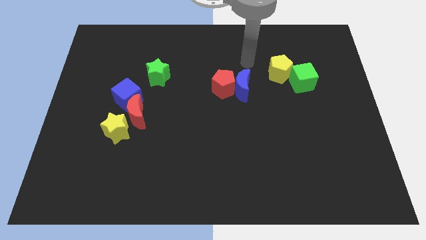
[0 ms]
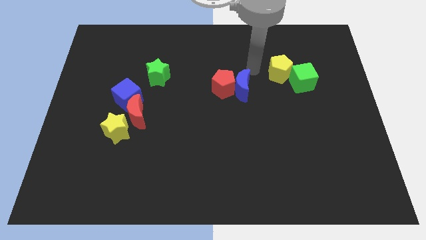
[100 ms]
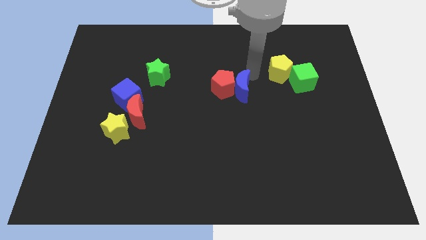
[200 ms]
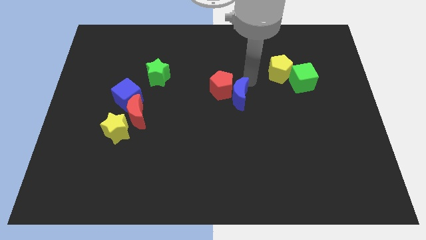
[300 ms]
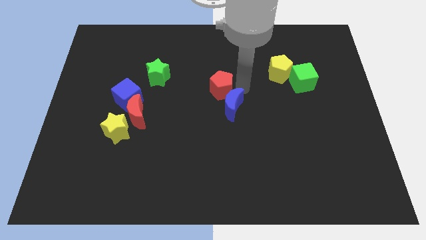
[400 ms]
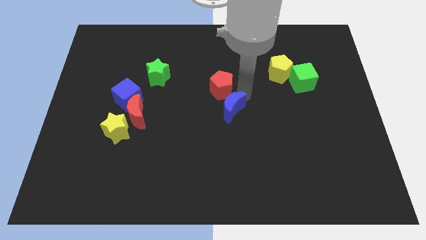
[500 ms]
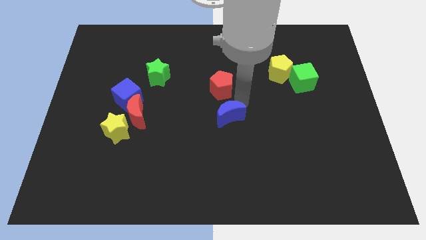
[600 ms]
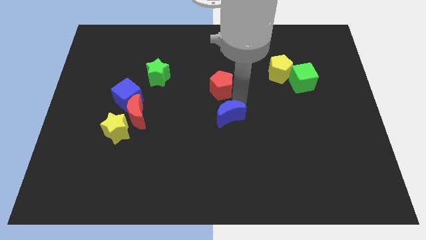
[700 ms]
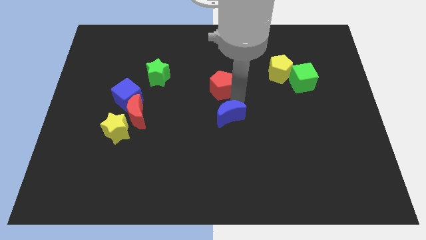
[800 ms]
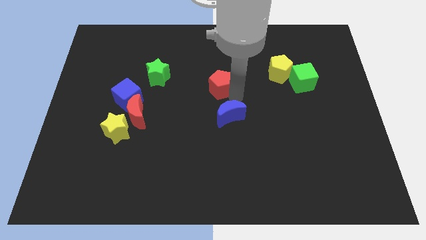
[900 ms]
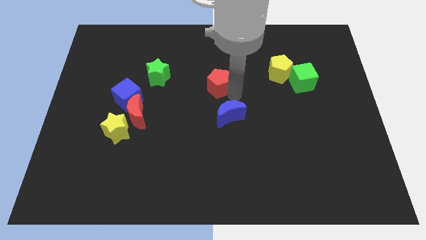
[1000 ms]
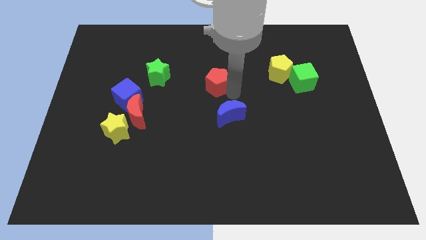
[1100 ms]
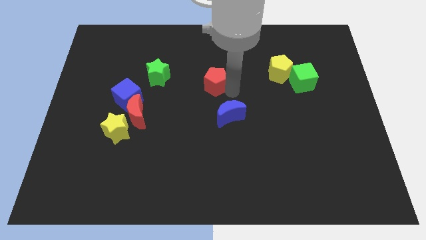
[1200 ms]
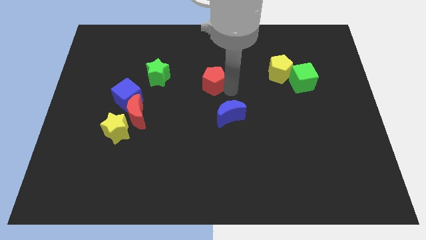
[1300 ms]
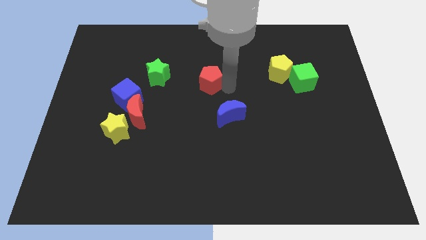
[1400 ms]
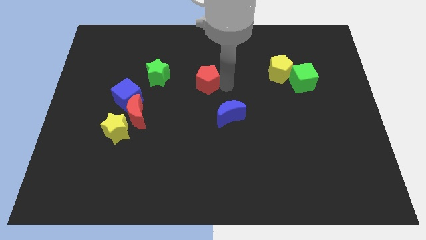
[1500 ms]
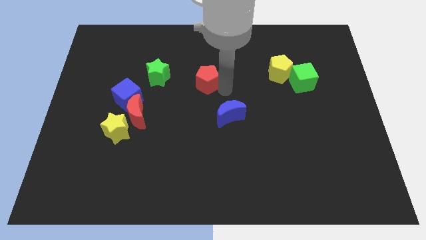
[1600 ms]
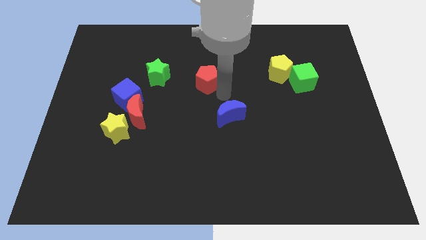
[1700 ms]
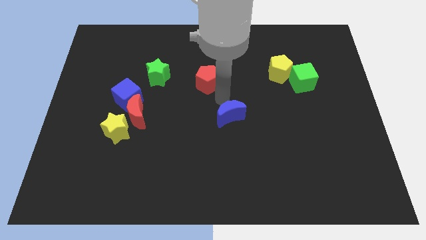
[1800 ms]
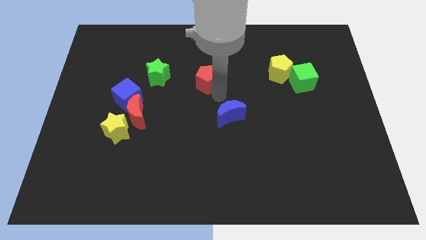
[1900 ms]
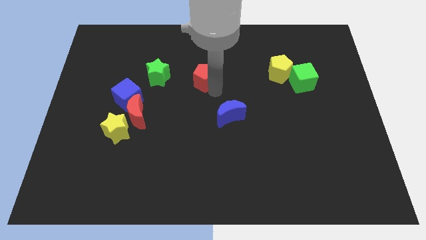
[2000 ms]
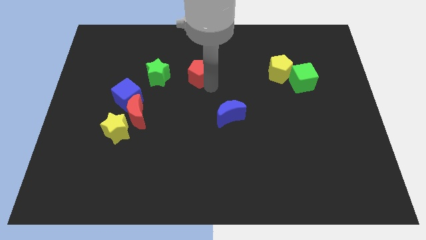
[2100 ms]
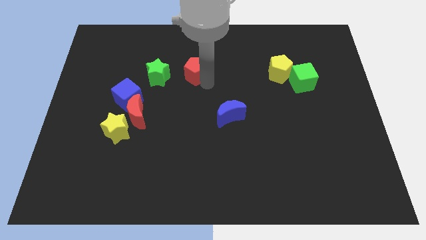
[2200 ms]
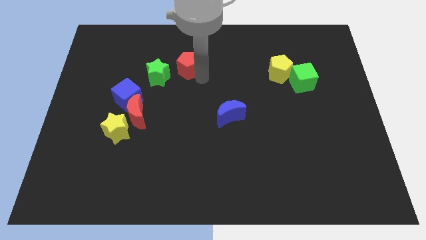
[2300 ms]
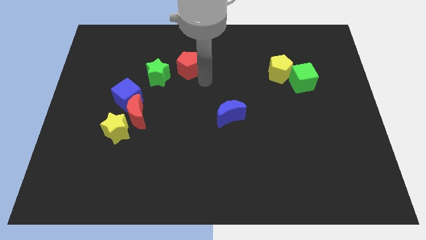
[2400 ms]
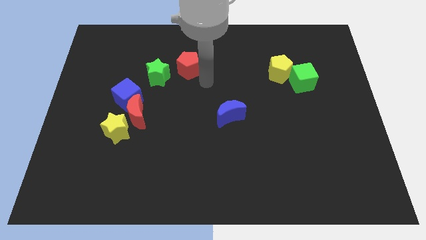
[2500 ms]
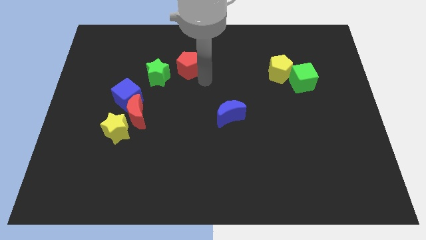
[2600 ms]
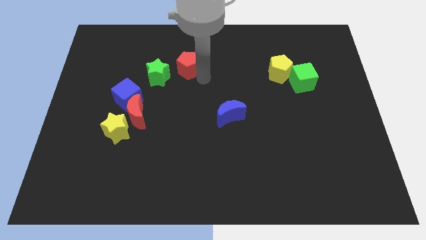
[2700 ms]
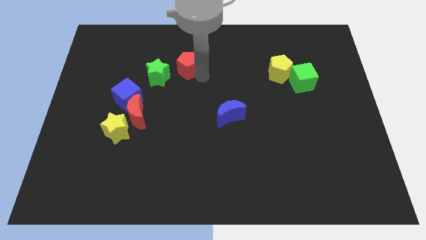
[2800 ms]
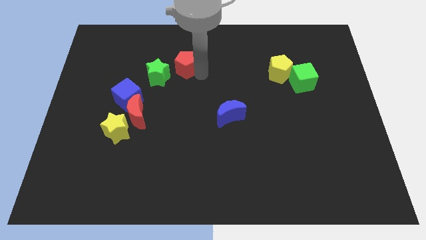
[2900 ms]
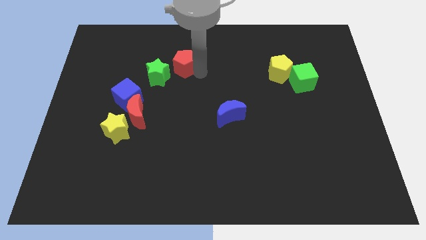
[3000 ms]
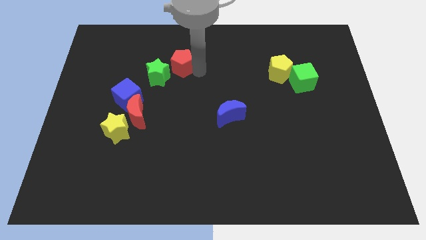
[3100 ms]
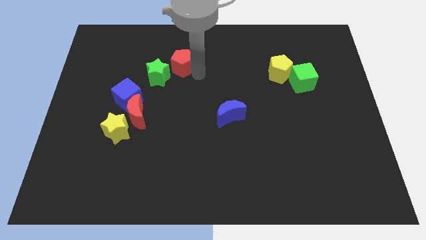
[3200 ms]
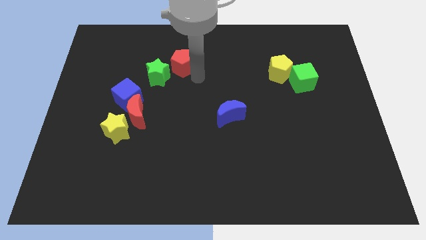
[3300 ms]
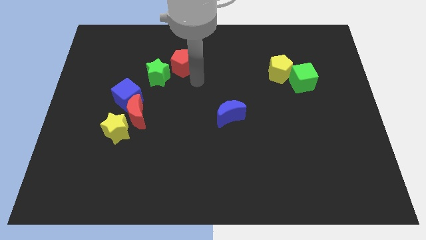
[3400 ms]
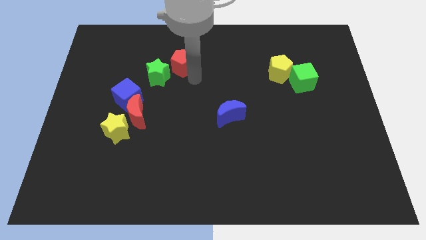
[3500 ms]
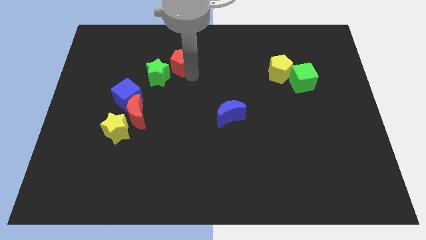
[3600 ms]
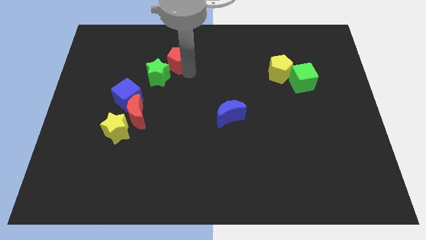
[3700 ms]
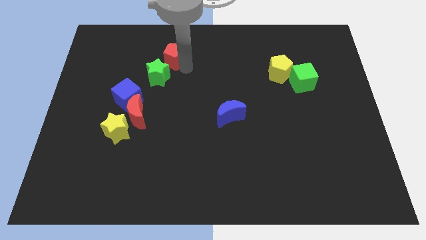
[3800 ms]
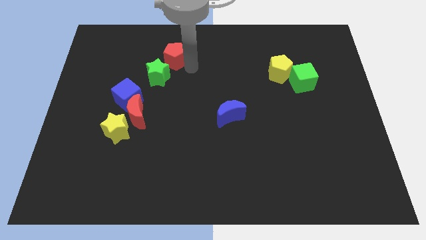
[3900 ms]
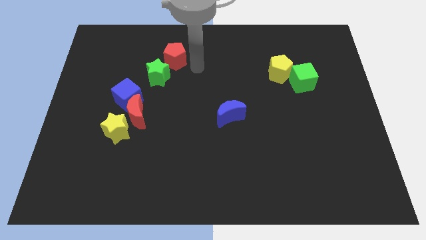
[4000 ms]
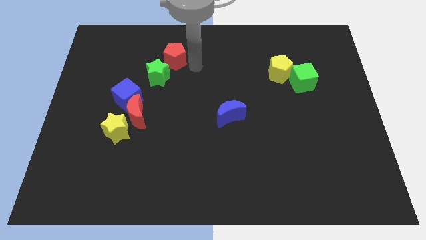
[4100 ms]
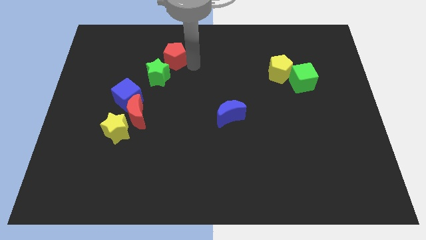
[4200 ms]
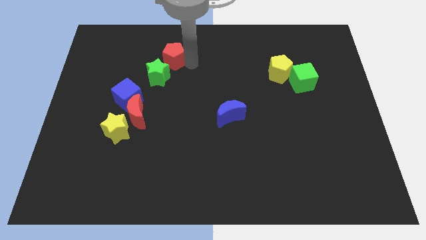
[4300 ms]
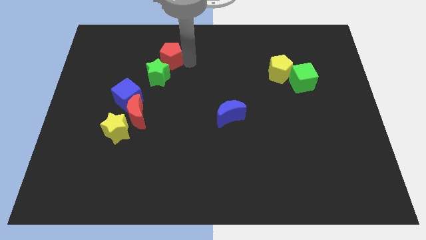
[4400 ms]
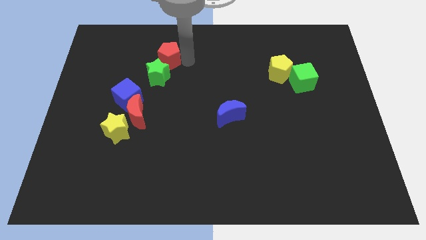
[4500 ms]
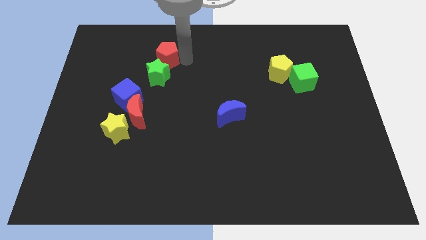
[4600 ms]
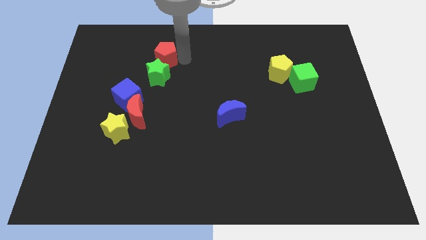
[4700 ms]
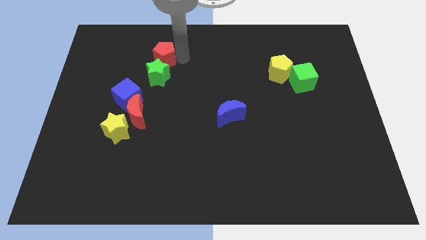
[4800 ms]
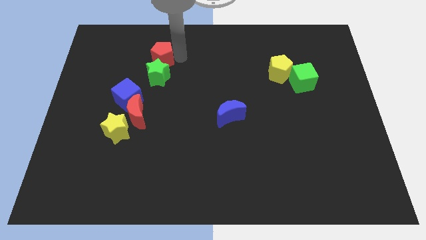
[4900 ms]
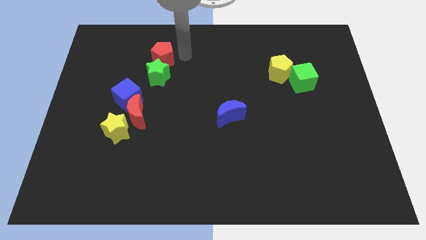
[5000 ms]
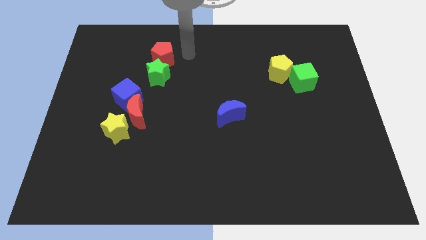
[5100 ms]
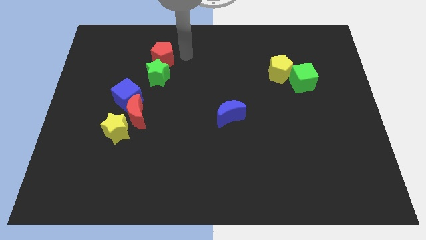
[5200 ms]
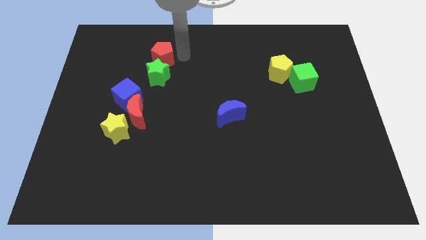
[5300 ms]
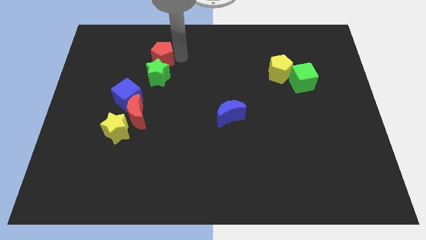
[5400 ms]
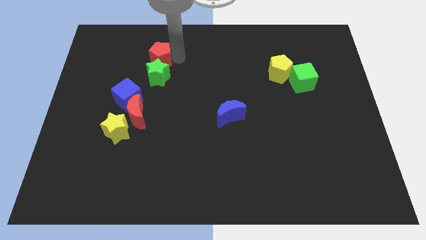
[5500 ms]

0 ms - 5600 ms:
slide the red pentagon to the top left side of the green star

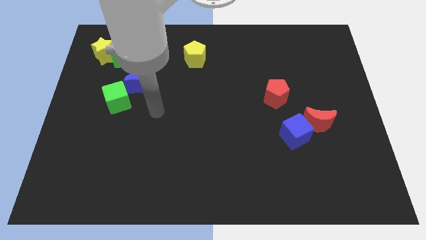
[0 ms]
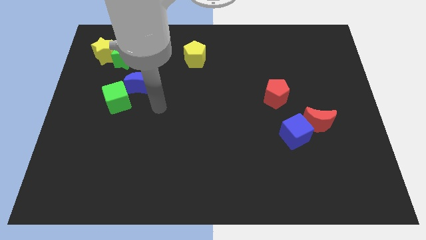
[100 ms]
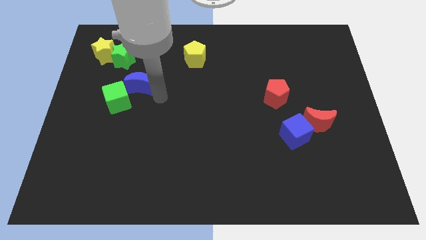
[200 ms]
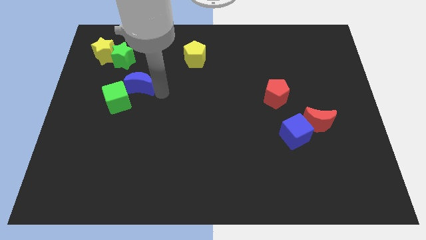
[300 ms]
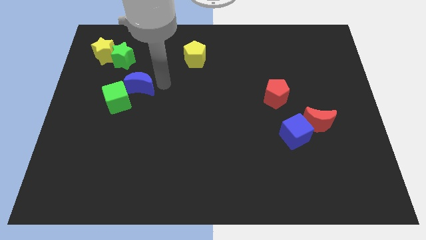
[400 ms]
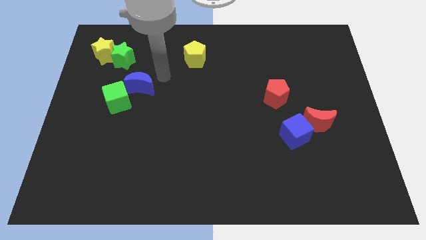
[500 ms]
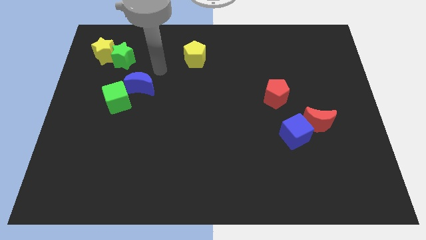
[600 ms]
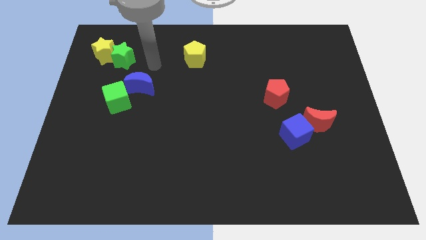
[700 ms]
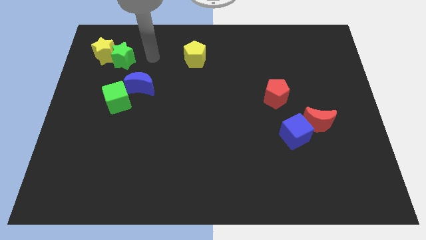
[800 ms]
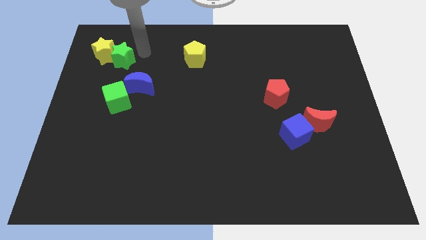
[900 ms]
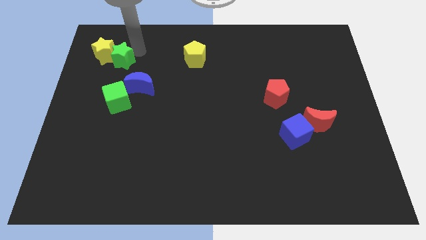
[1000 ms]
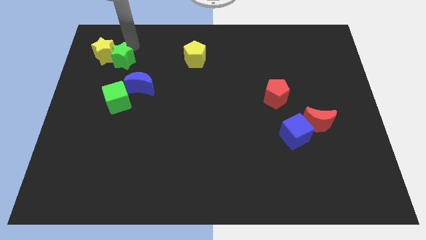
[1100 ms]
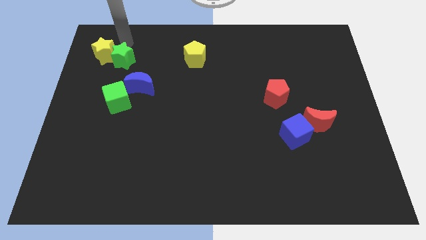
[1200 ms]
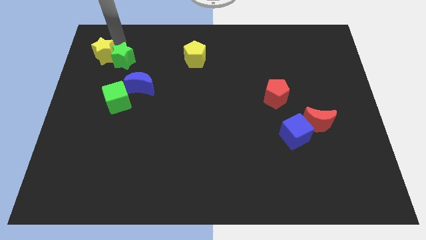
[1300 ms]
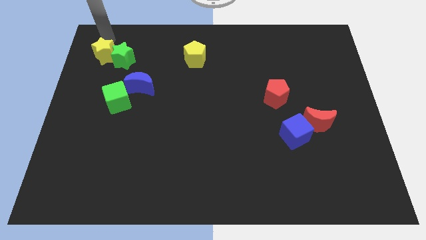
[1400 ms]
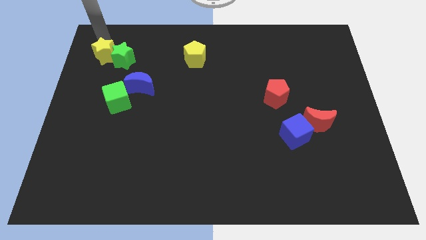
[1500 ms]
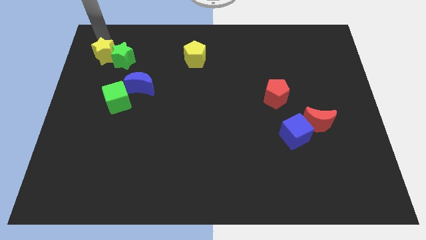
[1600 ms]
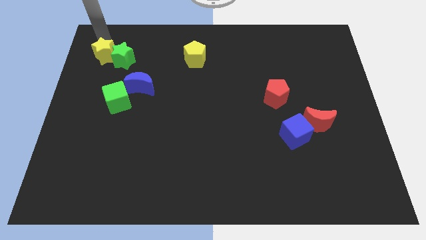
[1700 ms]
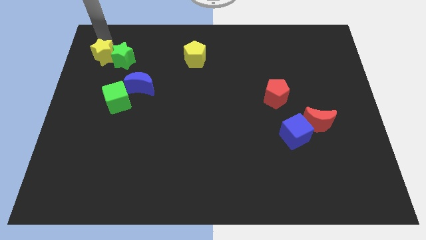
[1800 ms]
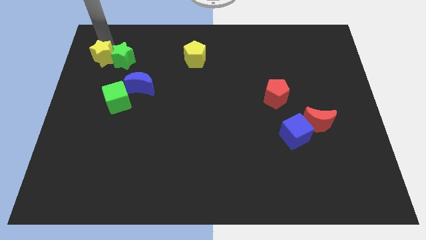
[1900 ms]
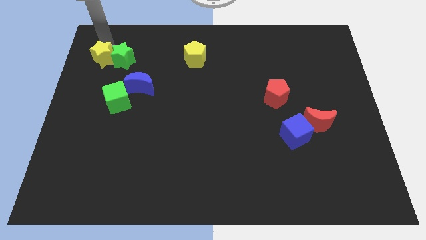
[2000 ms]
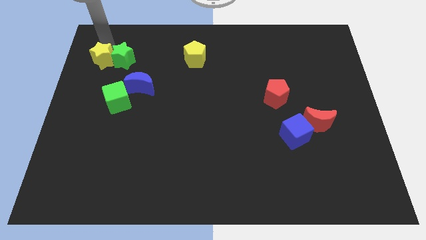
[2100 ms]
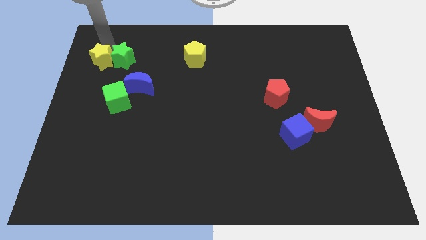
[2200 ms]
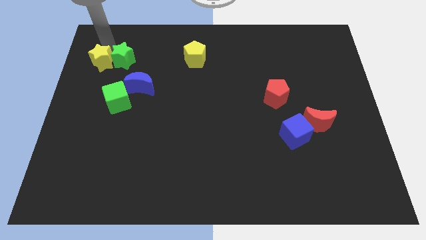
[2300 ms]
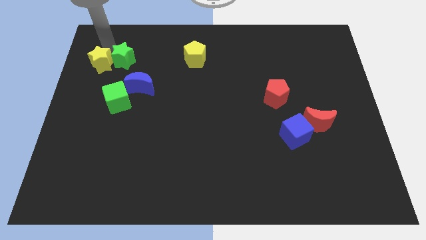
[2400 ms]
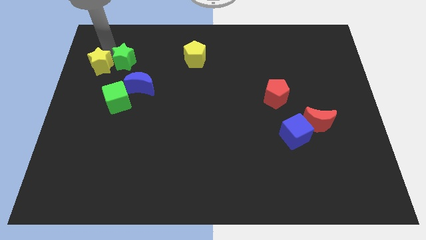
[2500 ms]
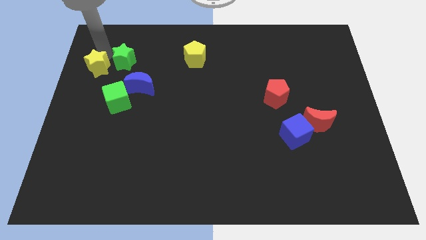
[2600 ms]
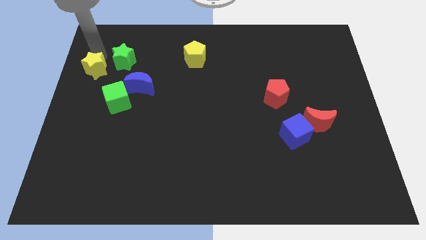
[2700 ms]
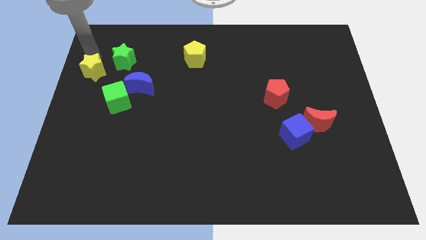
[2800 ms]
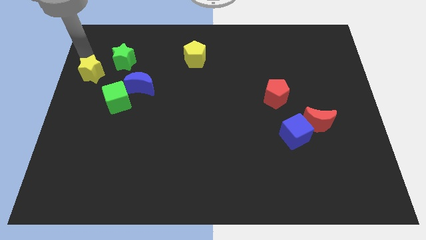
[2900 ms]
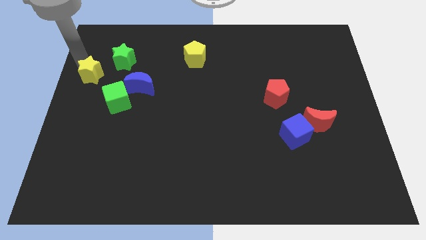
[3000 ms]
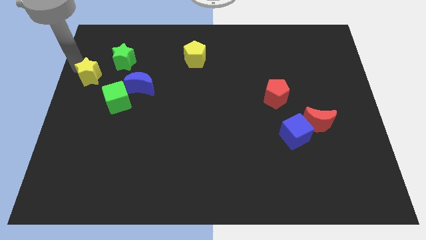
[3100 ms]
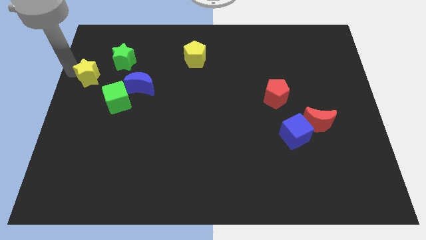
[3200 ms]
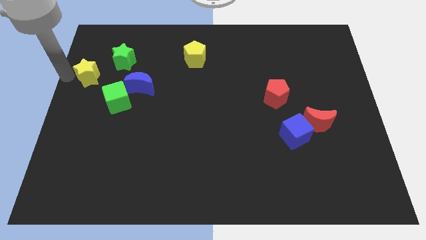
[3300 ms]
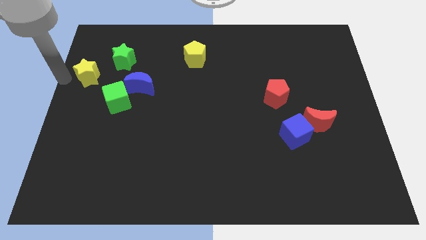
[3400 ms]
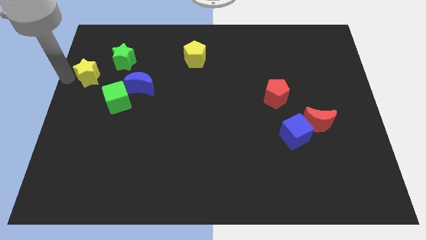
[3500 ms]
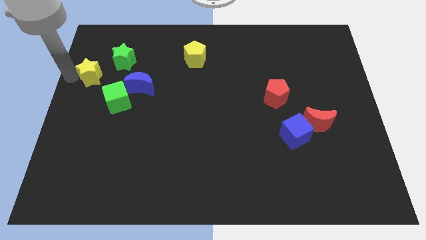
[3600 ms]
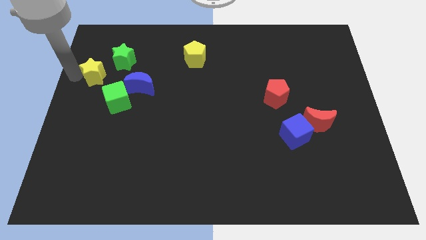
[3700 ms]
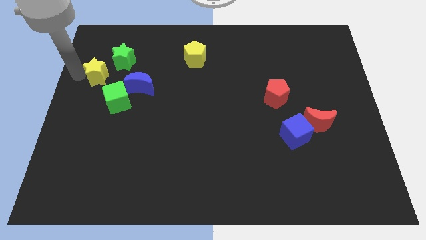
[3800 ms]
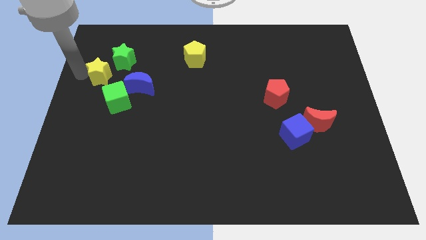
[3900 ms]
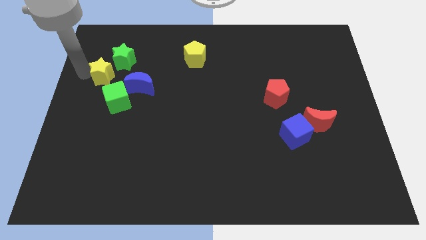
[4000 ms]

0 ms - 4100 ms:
slide the yellow star to the top left side of the blue moon
